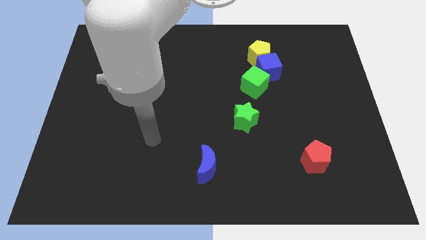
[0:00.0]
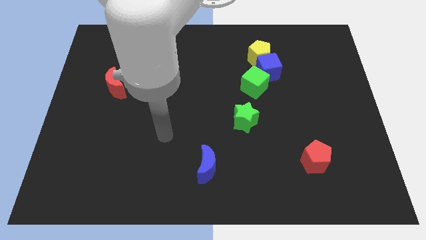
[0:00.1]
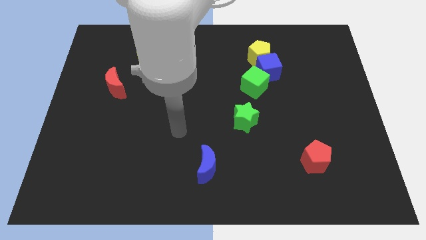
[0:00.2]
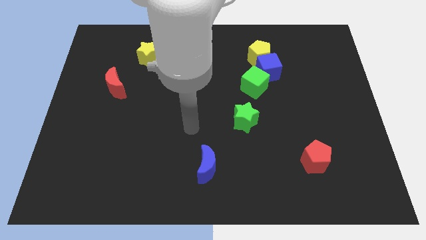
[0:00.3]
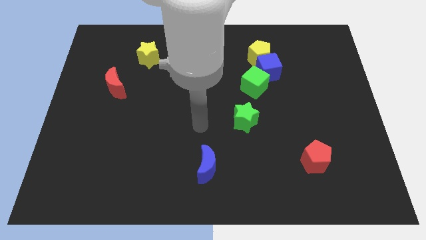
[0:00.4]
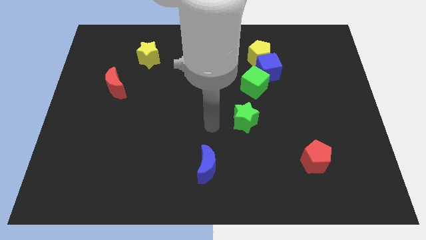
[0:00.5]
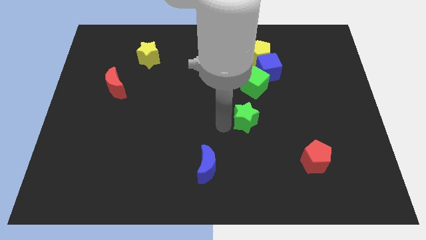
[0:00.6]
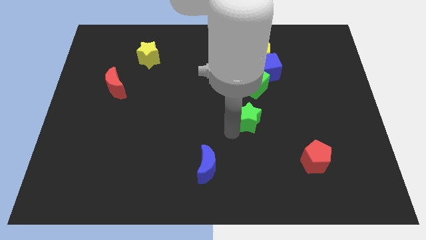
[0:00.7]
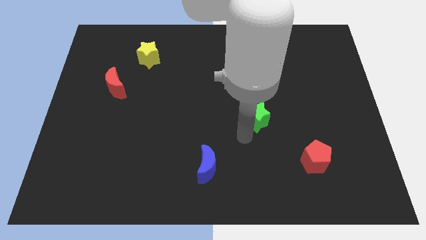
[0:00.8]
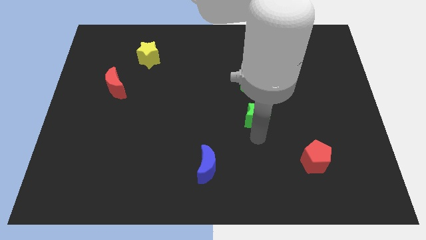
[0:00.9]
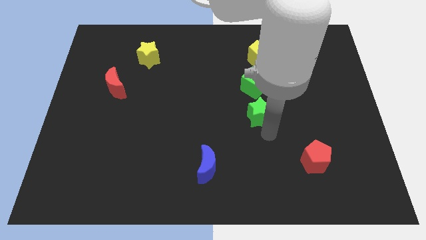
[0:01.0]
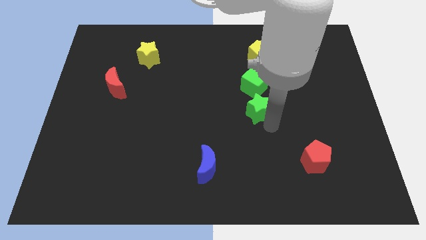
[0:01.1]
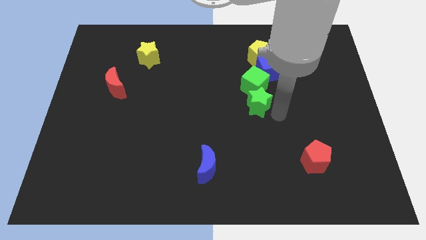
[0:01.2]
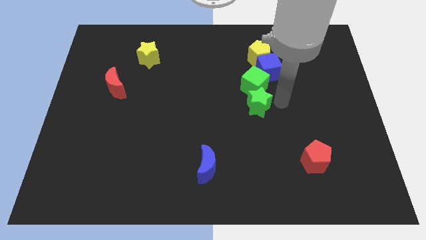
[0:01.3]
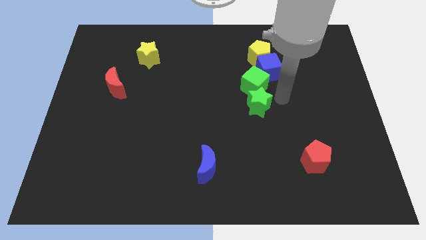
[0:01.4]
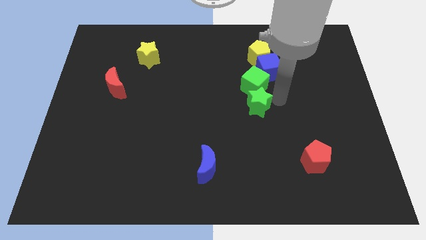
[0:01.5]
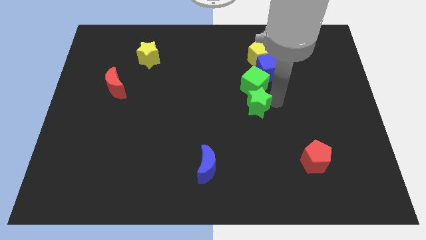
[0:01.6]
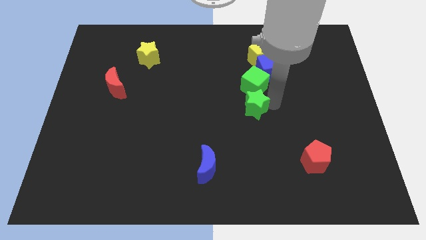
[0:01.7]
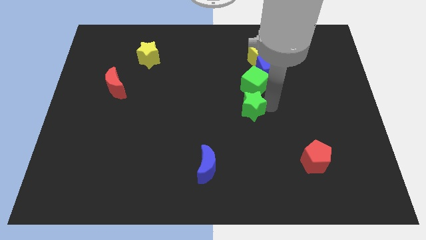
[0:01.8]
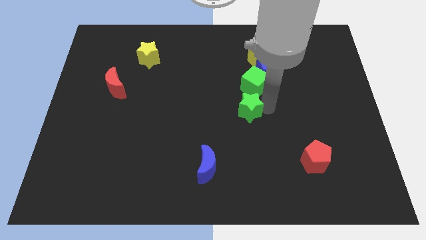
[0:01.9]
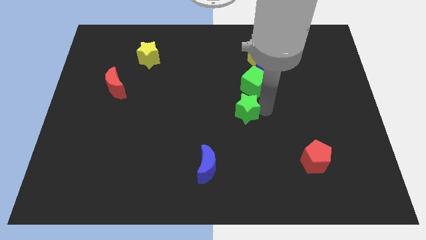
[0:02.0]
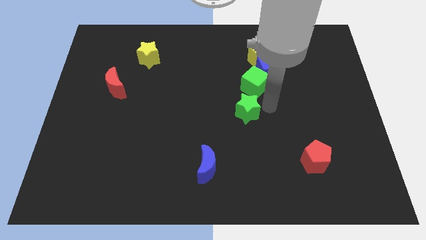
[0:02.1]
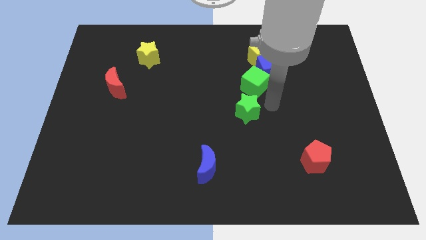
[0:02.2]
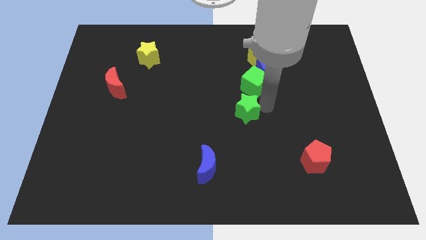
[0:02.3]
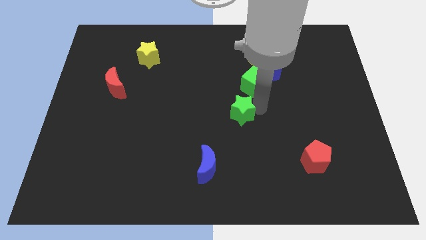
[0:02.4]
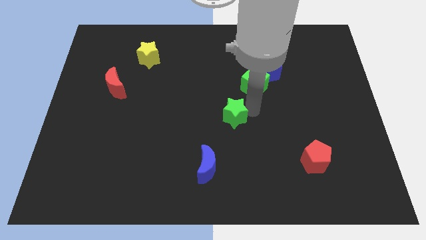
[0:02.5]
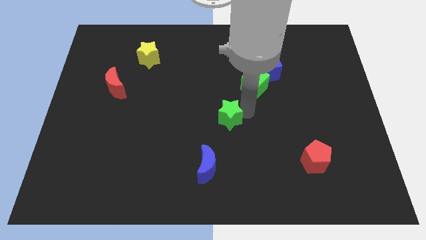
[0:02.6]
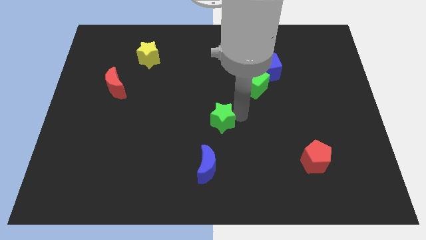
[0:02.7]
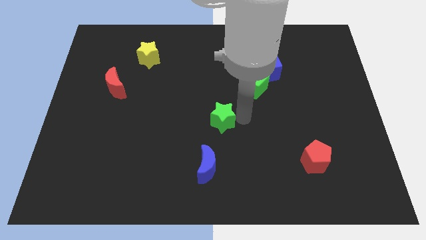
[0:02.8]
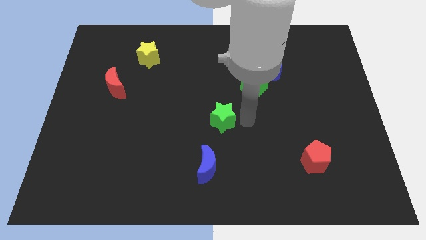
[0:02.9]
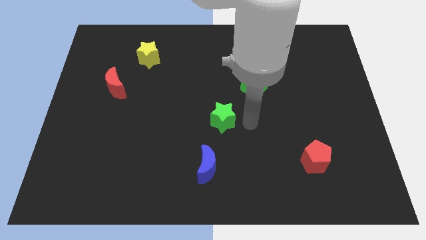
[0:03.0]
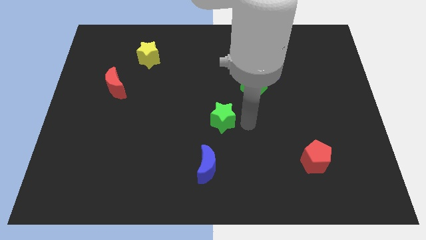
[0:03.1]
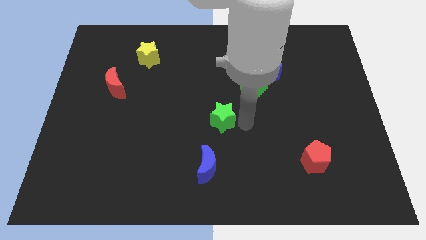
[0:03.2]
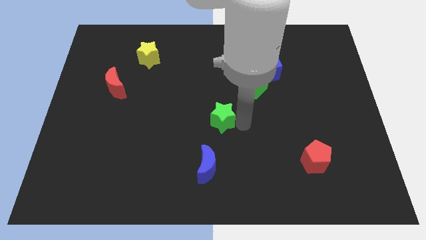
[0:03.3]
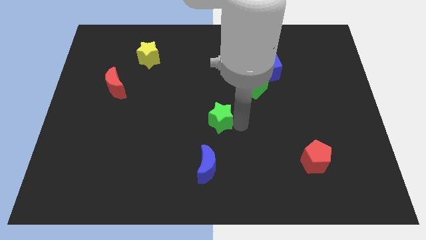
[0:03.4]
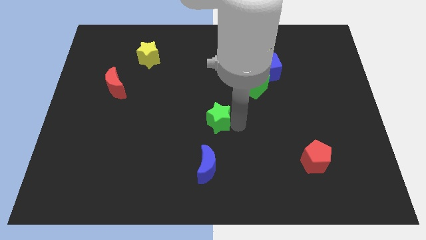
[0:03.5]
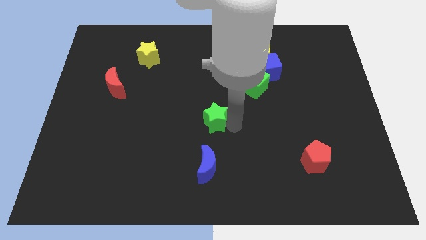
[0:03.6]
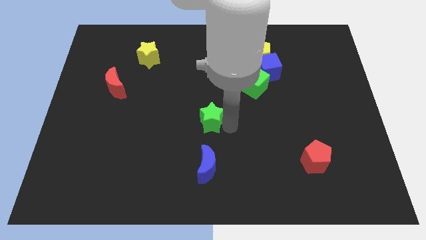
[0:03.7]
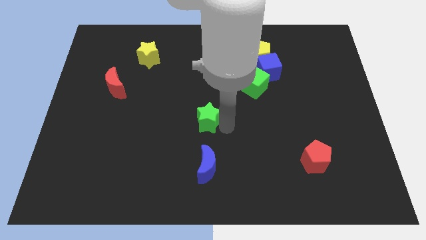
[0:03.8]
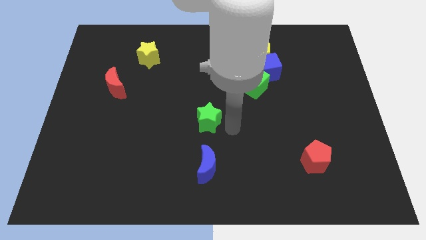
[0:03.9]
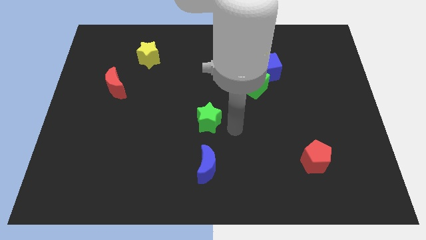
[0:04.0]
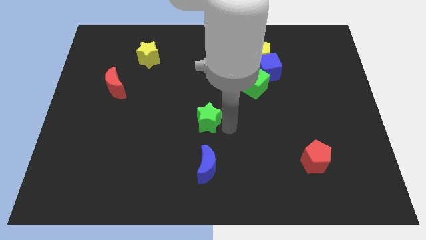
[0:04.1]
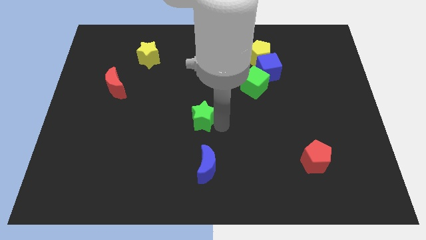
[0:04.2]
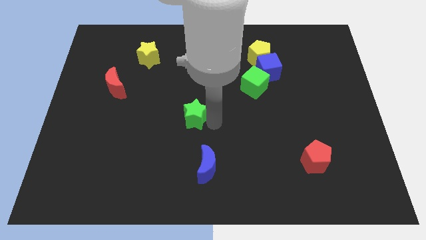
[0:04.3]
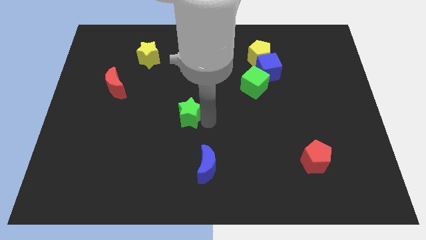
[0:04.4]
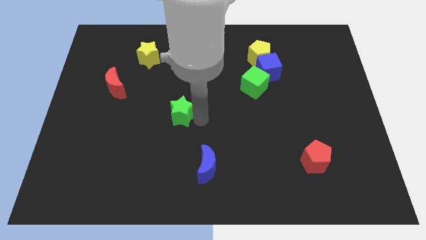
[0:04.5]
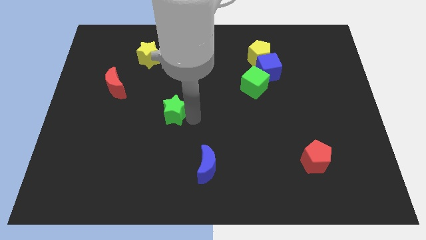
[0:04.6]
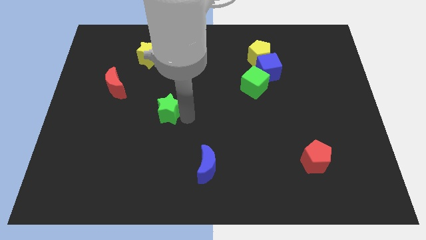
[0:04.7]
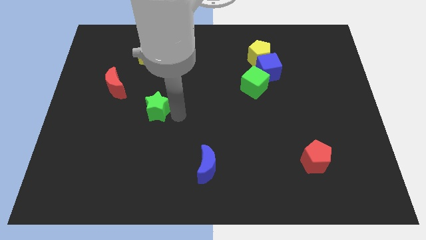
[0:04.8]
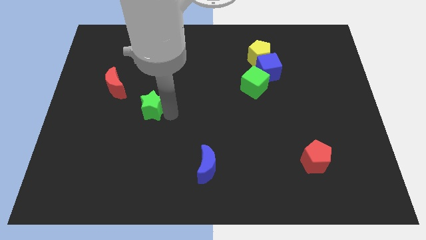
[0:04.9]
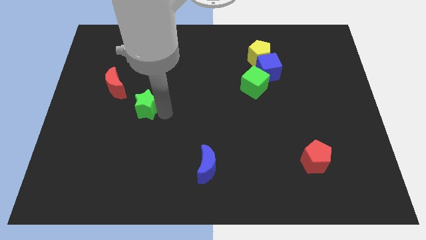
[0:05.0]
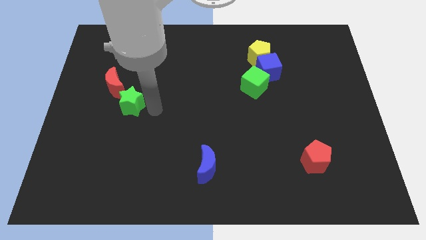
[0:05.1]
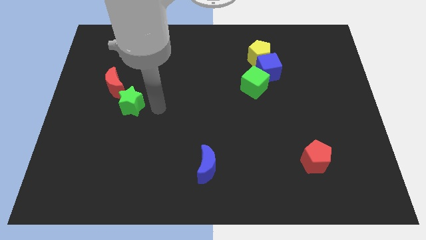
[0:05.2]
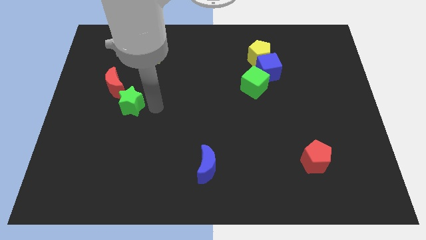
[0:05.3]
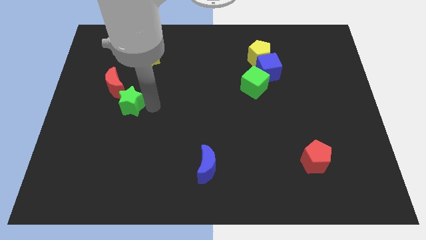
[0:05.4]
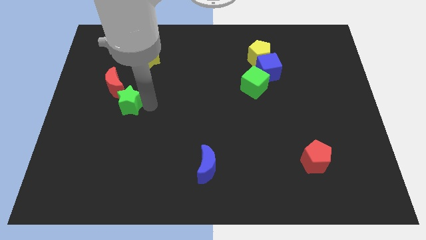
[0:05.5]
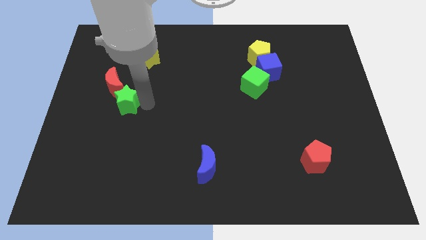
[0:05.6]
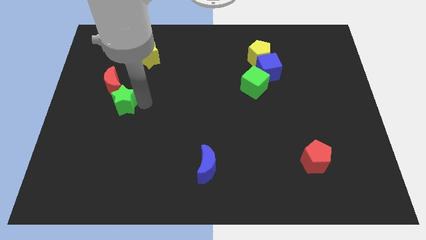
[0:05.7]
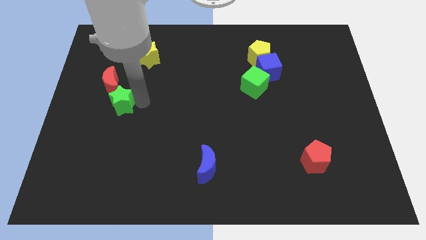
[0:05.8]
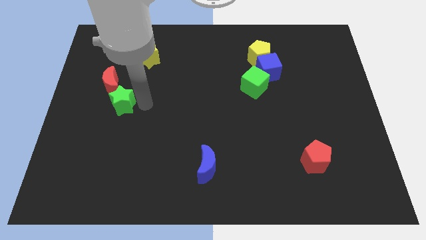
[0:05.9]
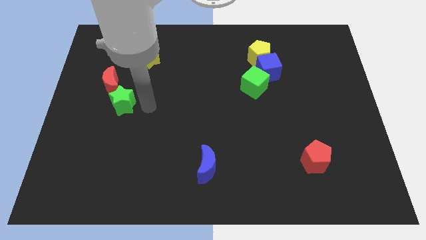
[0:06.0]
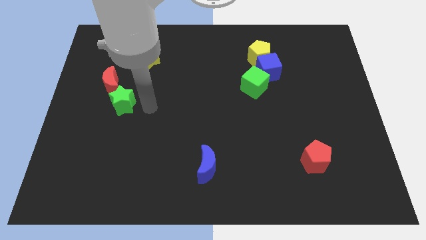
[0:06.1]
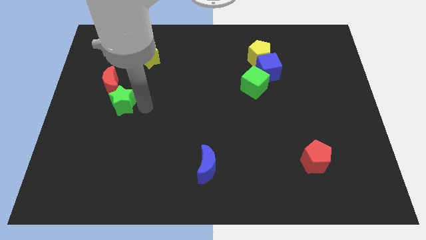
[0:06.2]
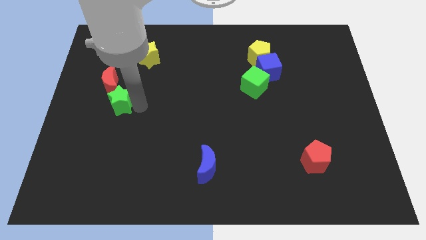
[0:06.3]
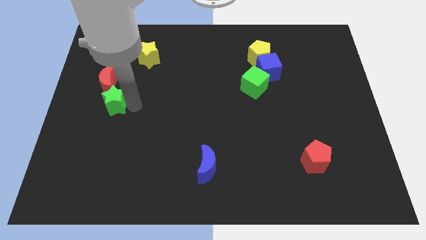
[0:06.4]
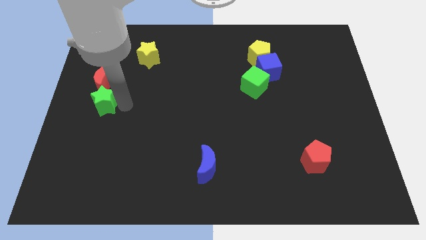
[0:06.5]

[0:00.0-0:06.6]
push the green star to the left side
